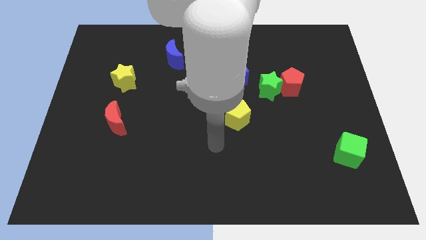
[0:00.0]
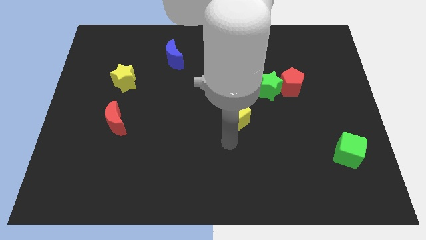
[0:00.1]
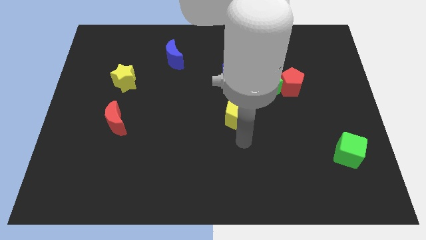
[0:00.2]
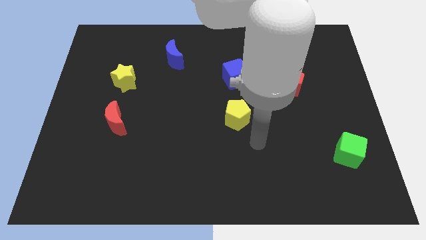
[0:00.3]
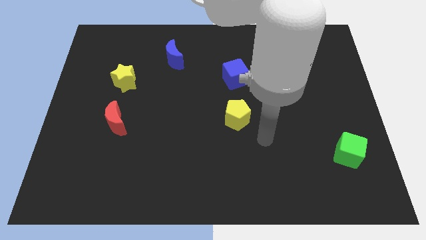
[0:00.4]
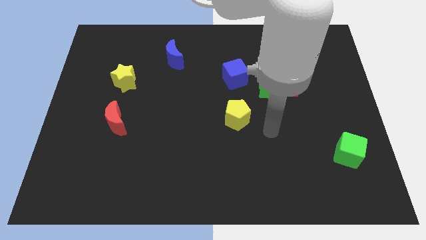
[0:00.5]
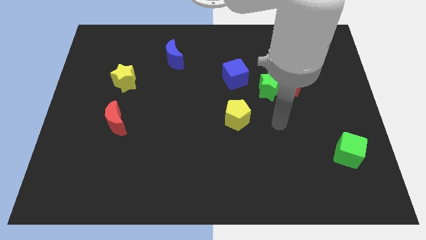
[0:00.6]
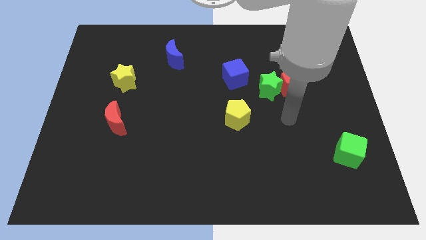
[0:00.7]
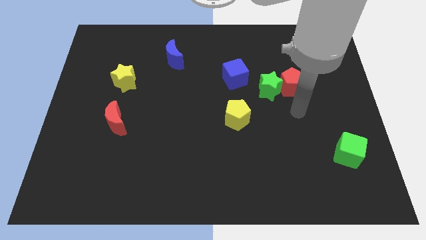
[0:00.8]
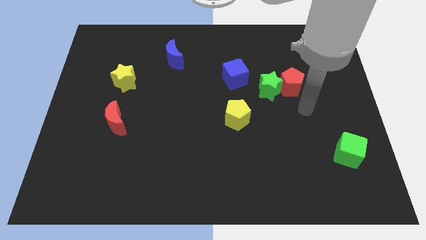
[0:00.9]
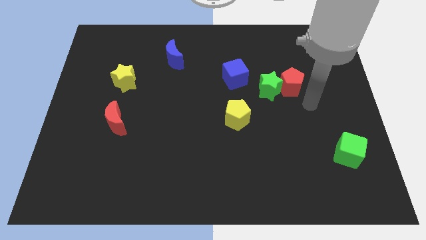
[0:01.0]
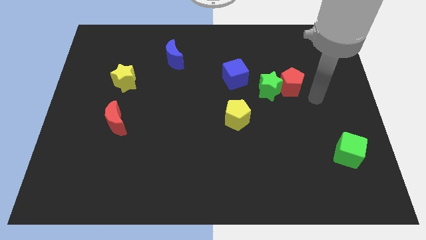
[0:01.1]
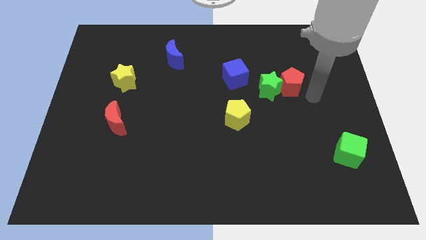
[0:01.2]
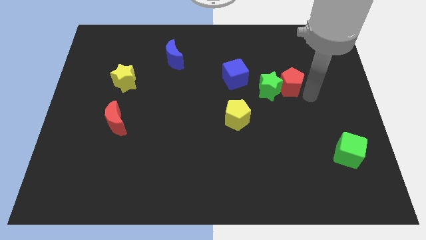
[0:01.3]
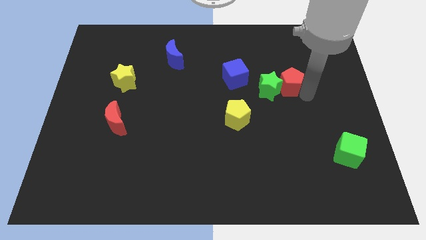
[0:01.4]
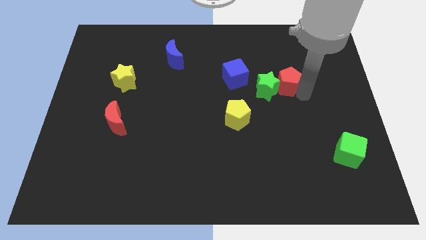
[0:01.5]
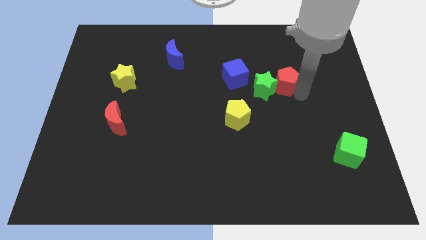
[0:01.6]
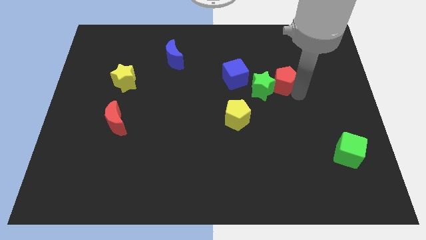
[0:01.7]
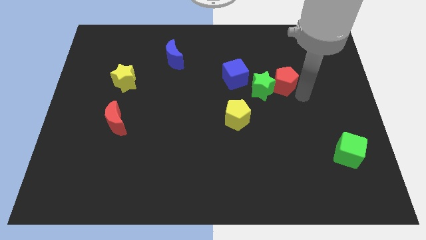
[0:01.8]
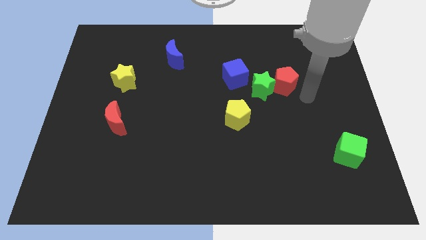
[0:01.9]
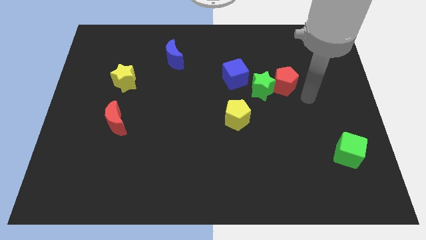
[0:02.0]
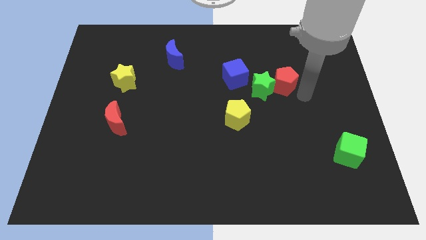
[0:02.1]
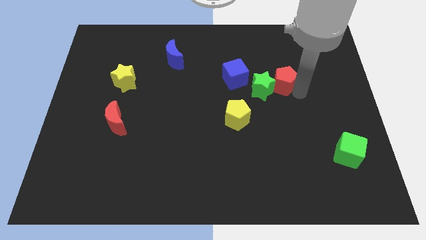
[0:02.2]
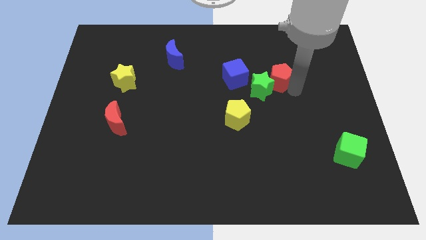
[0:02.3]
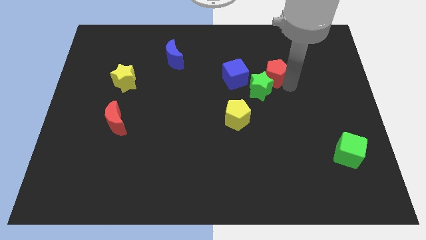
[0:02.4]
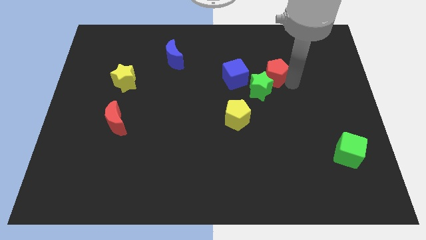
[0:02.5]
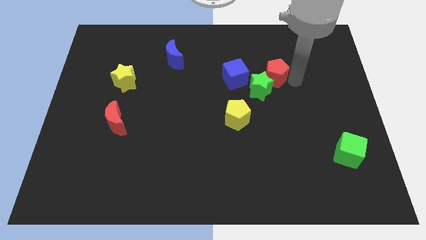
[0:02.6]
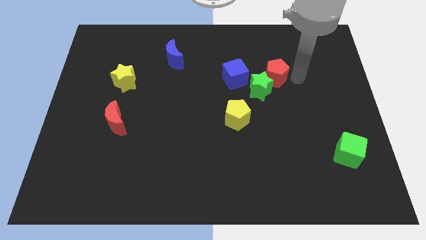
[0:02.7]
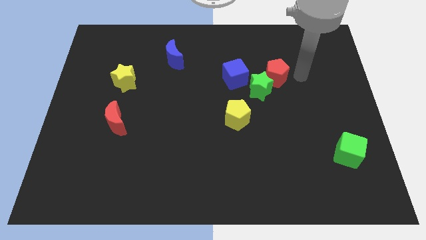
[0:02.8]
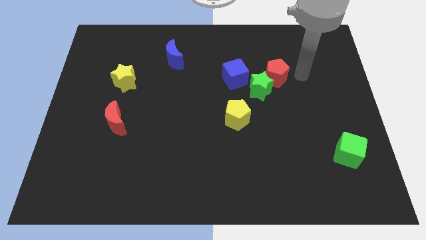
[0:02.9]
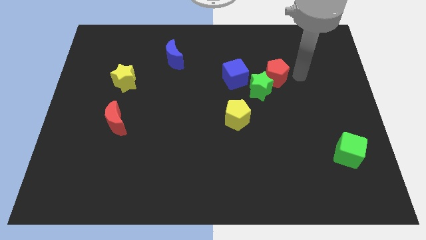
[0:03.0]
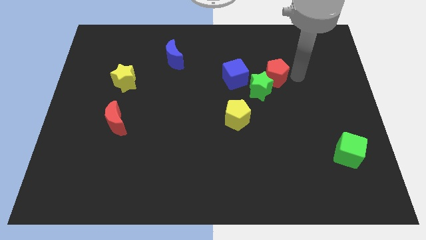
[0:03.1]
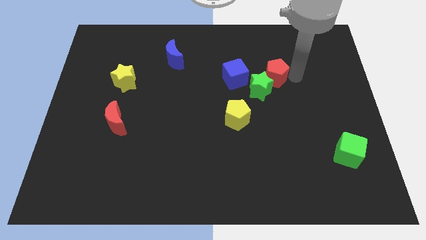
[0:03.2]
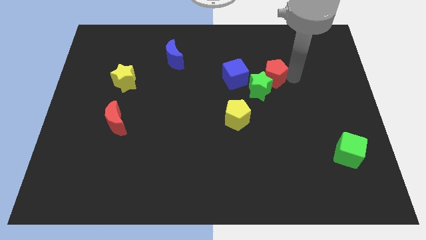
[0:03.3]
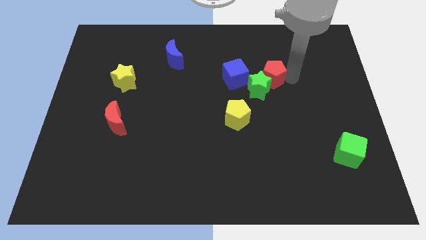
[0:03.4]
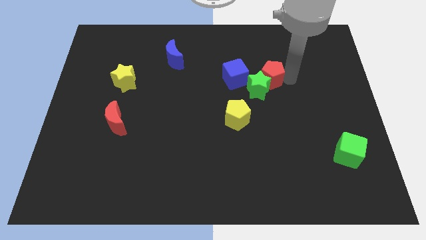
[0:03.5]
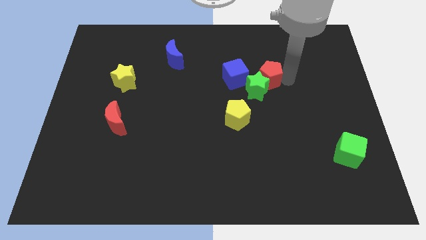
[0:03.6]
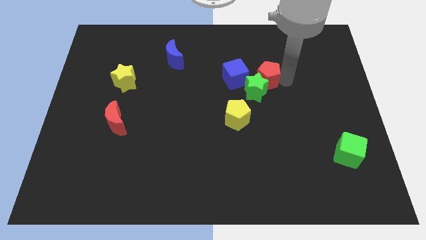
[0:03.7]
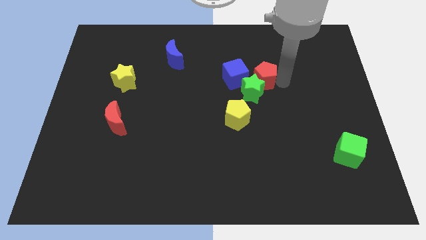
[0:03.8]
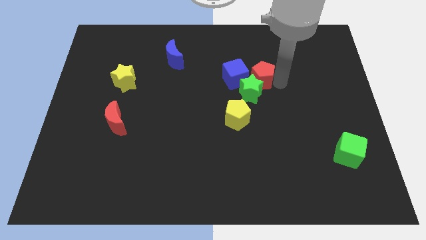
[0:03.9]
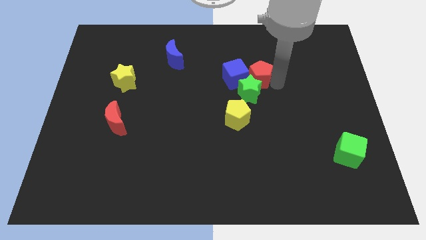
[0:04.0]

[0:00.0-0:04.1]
move the red pentagon towards the blue cube

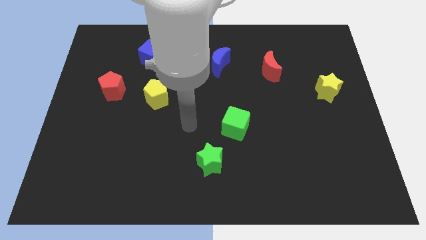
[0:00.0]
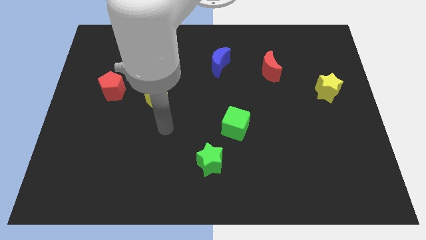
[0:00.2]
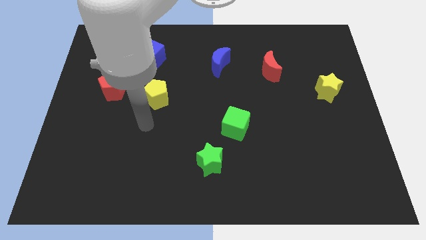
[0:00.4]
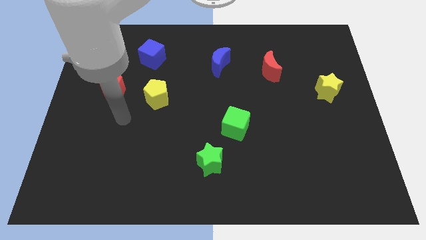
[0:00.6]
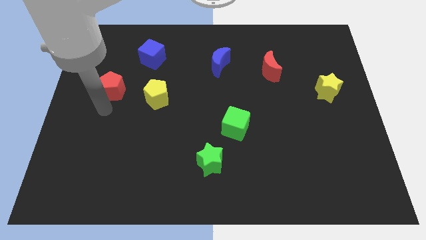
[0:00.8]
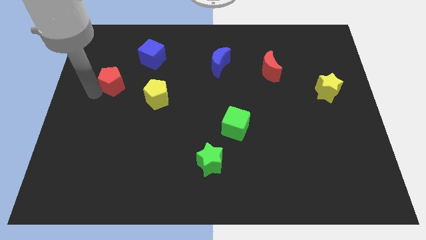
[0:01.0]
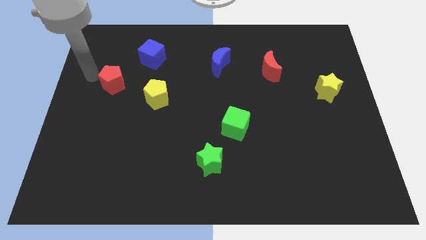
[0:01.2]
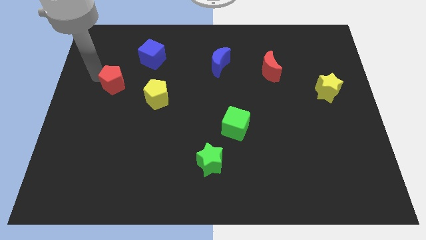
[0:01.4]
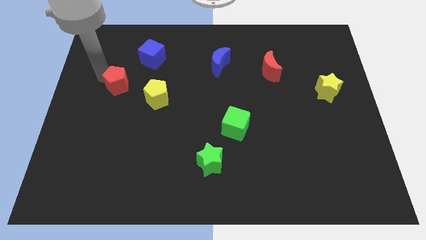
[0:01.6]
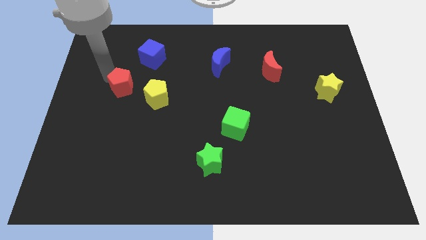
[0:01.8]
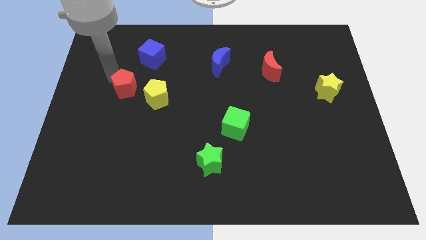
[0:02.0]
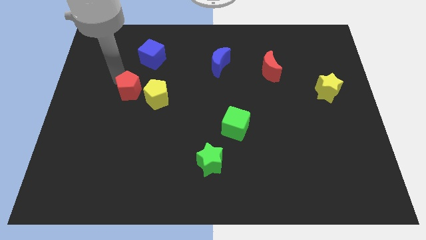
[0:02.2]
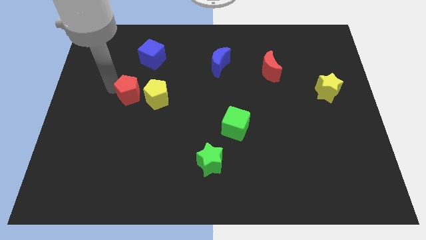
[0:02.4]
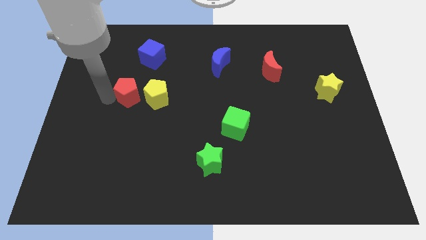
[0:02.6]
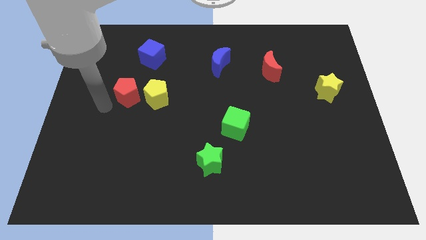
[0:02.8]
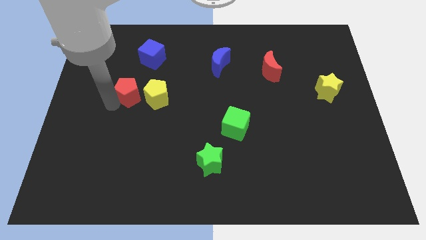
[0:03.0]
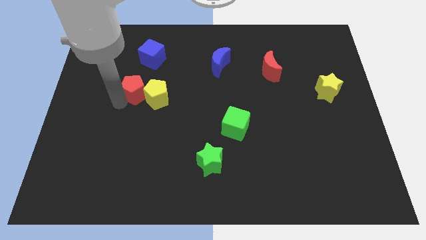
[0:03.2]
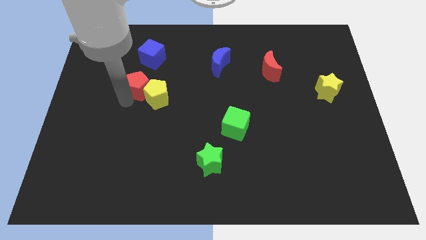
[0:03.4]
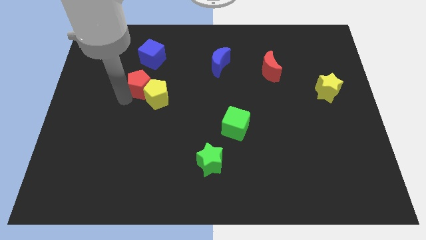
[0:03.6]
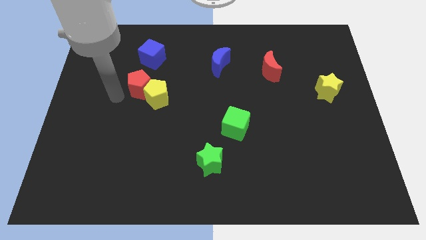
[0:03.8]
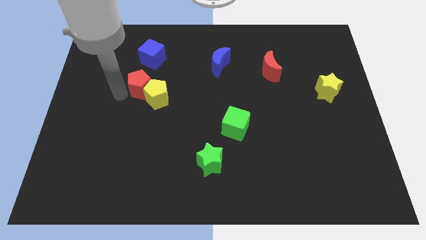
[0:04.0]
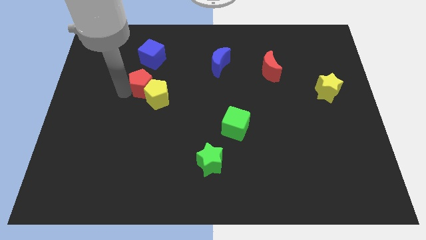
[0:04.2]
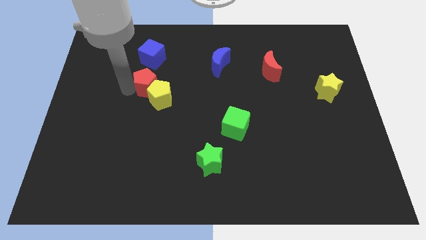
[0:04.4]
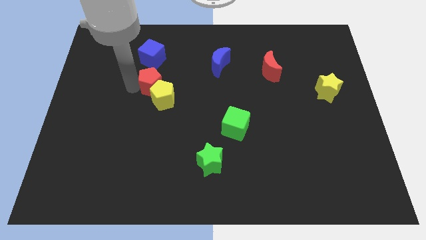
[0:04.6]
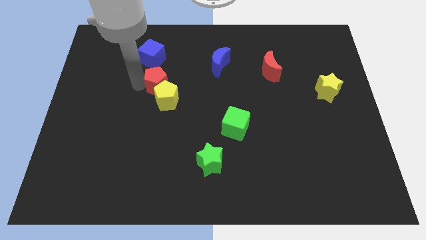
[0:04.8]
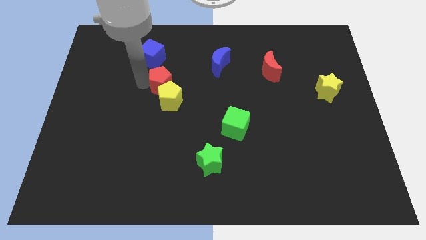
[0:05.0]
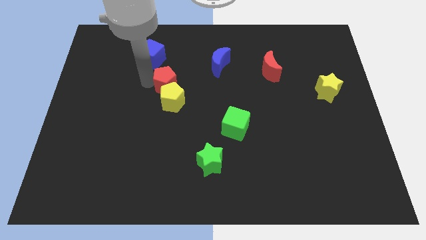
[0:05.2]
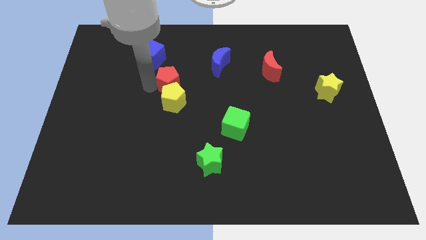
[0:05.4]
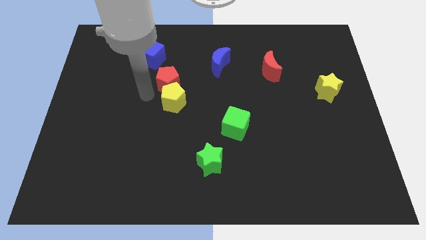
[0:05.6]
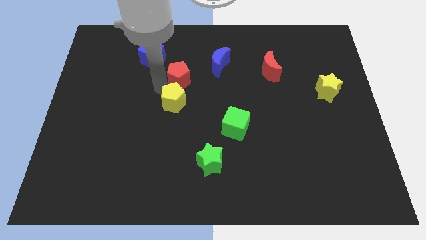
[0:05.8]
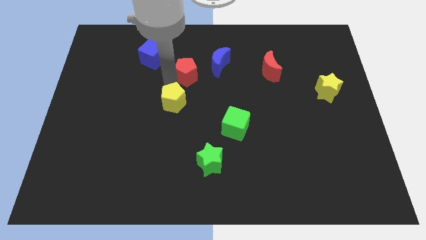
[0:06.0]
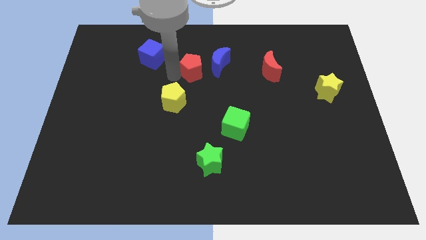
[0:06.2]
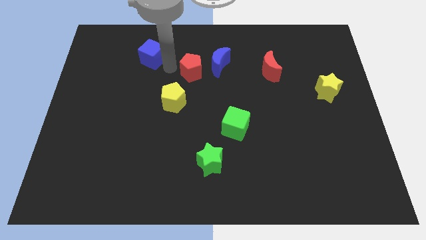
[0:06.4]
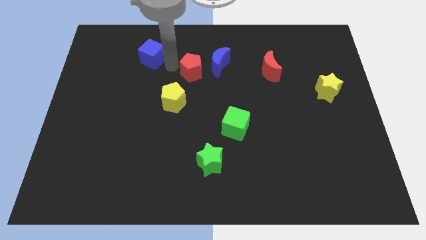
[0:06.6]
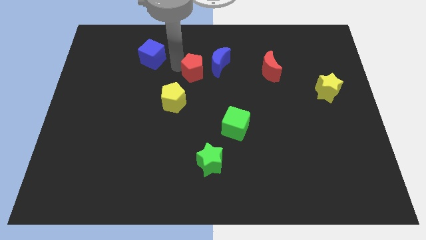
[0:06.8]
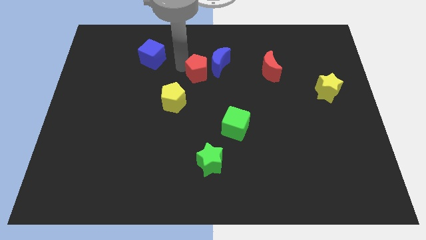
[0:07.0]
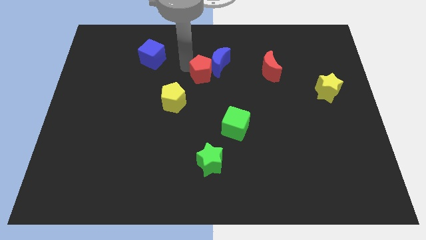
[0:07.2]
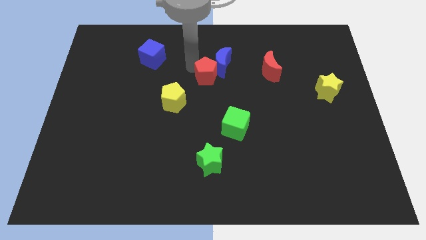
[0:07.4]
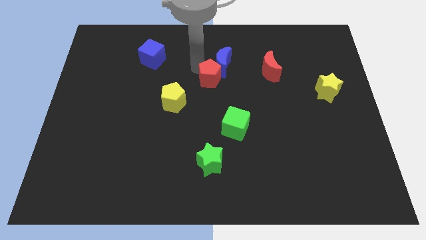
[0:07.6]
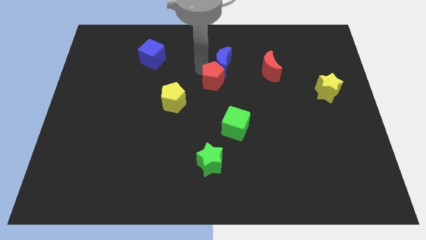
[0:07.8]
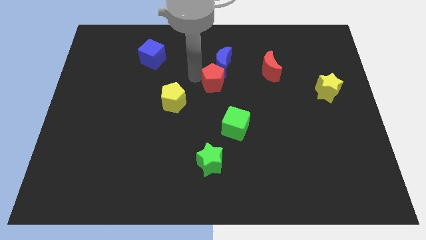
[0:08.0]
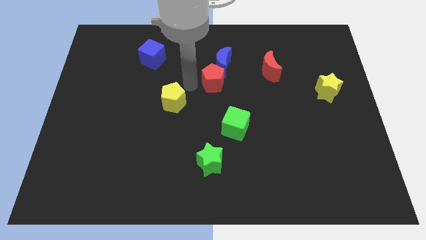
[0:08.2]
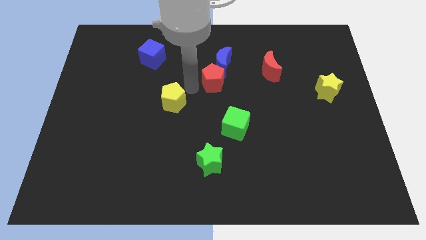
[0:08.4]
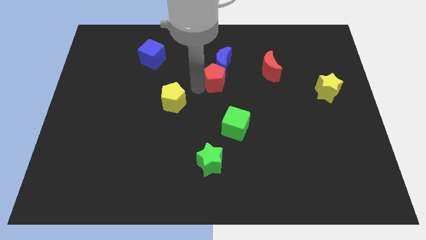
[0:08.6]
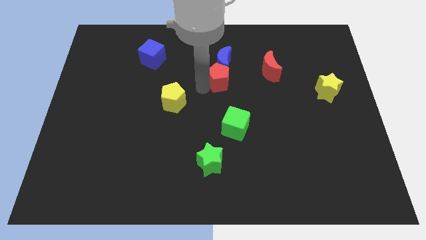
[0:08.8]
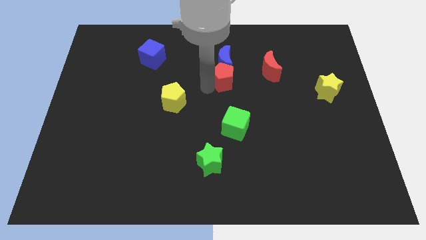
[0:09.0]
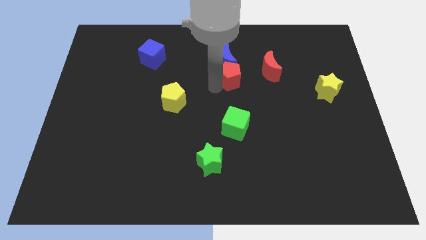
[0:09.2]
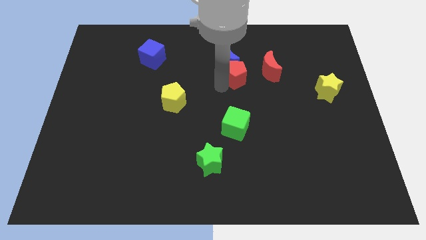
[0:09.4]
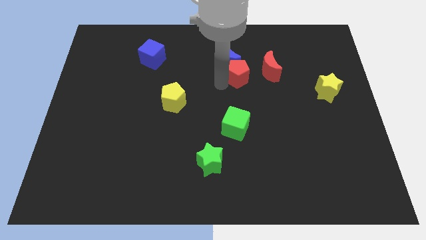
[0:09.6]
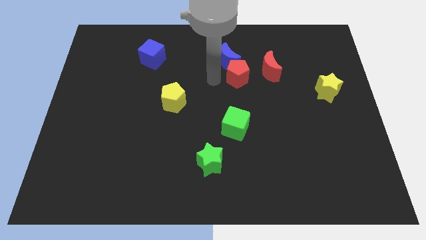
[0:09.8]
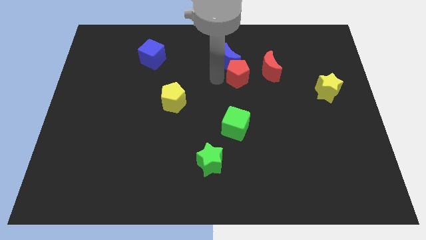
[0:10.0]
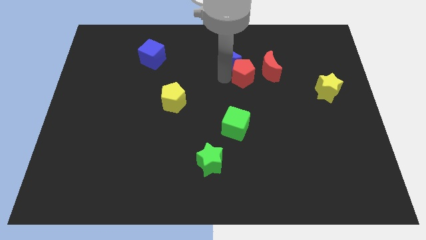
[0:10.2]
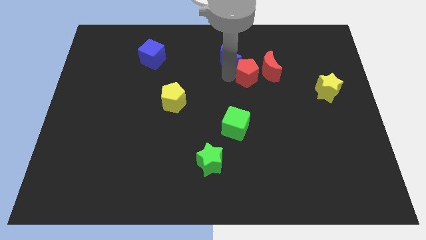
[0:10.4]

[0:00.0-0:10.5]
push the red pentagon towards the red moon
